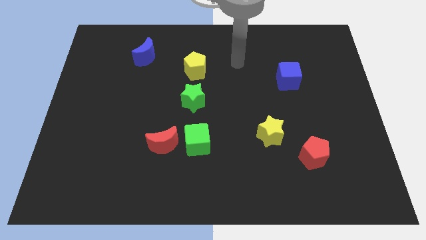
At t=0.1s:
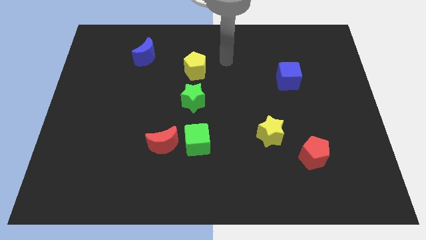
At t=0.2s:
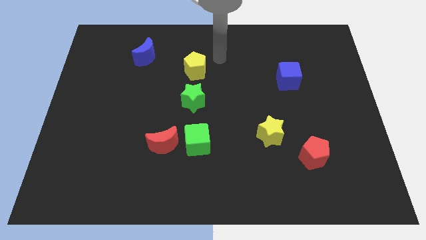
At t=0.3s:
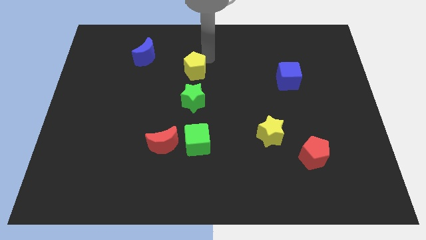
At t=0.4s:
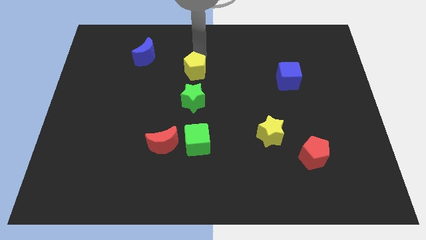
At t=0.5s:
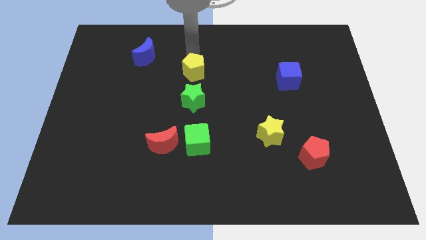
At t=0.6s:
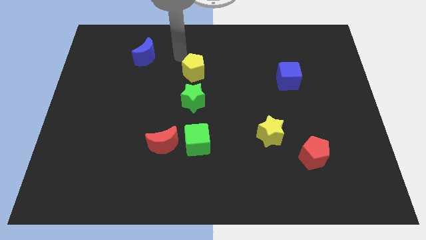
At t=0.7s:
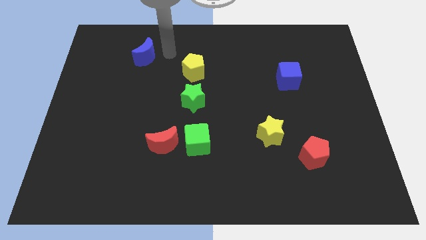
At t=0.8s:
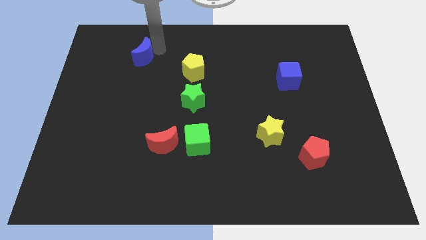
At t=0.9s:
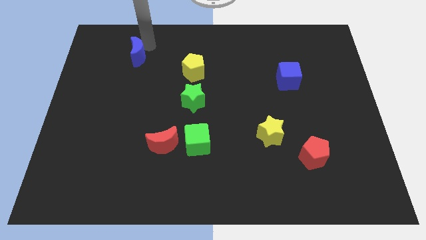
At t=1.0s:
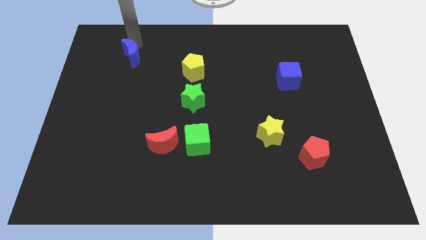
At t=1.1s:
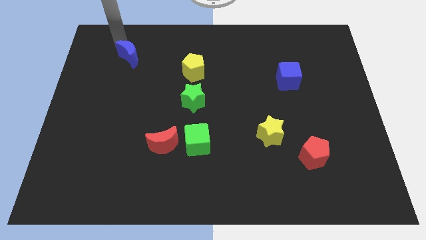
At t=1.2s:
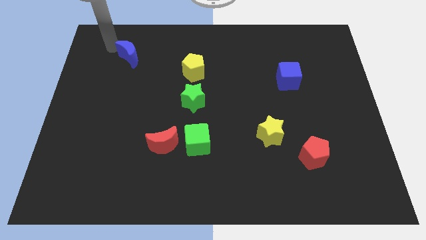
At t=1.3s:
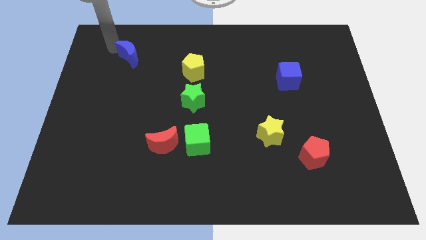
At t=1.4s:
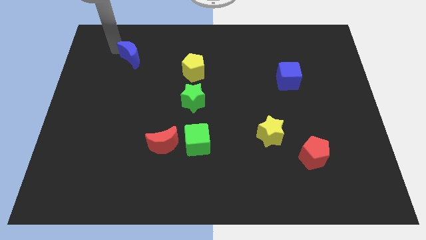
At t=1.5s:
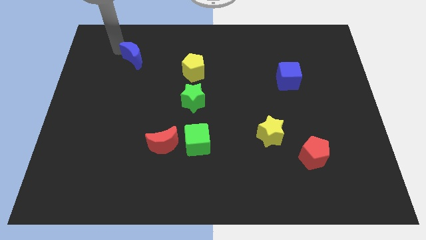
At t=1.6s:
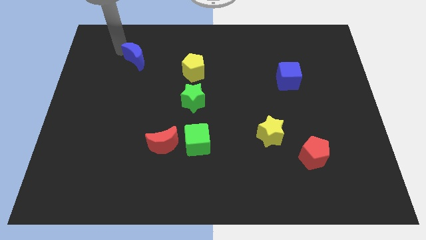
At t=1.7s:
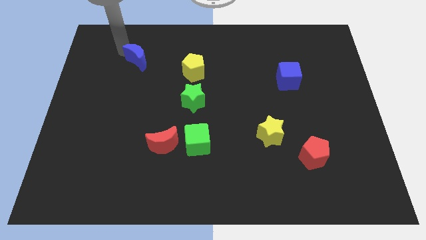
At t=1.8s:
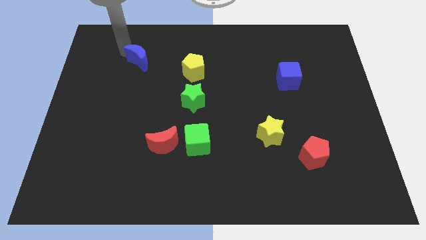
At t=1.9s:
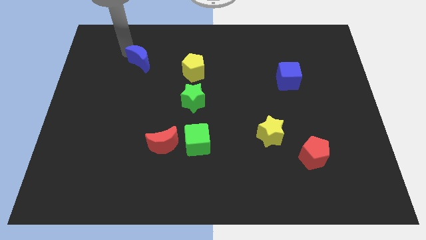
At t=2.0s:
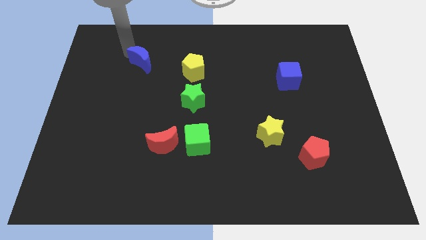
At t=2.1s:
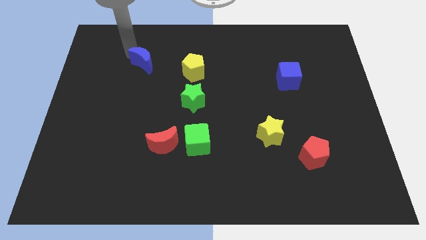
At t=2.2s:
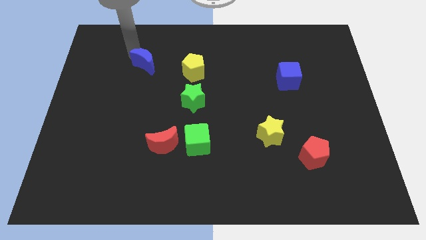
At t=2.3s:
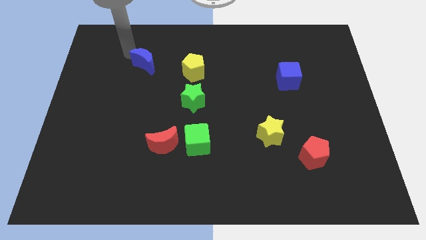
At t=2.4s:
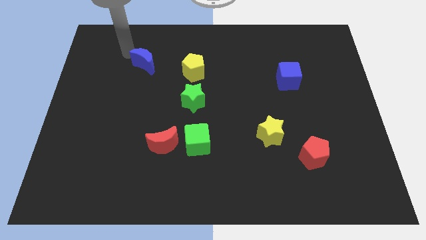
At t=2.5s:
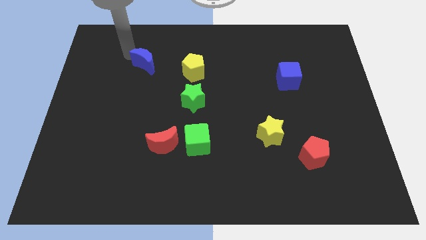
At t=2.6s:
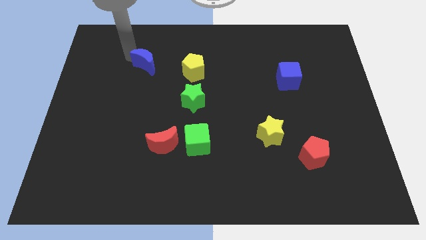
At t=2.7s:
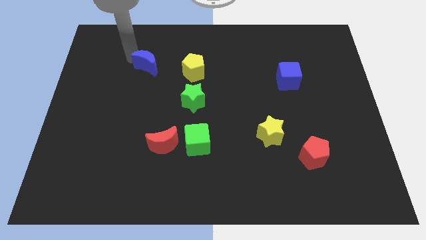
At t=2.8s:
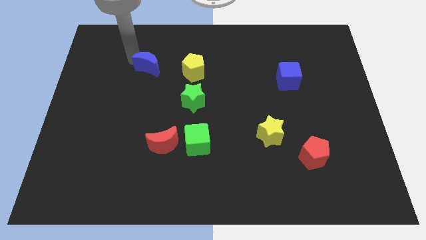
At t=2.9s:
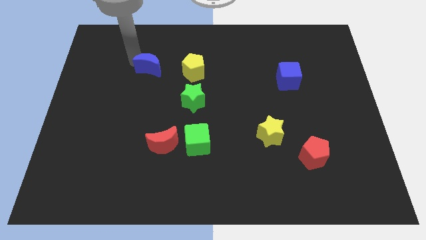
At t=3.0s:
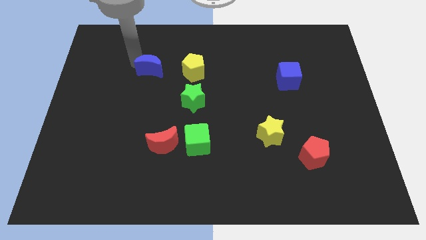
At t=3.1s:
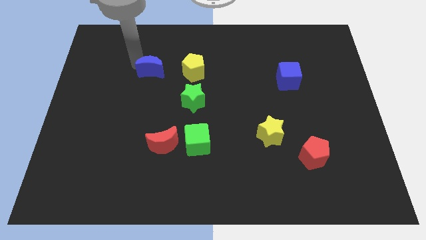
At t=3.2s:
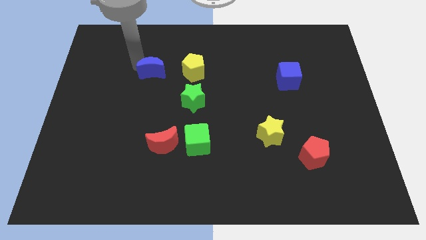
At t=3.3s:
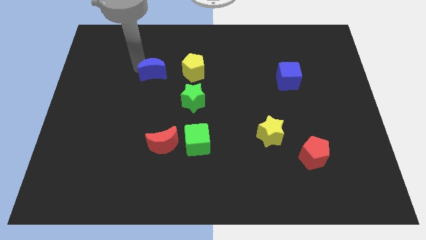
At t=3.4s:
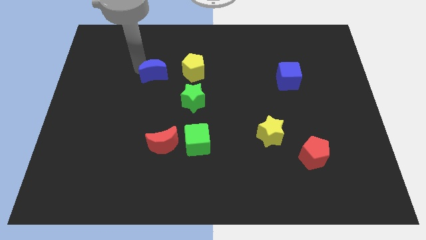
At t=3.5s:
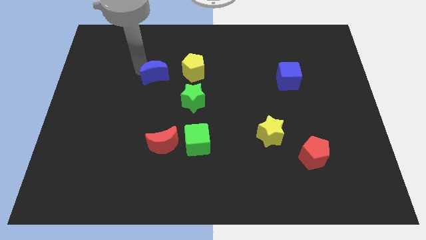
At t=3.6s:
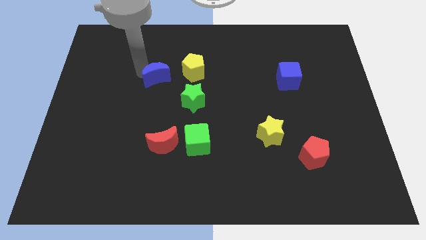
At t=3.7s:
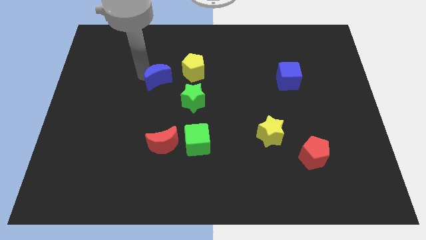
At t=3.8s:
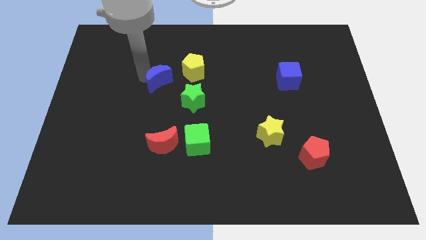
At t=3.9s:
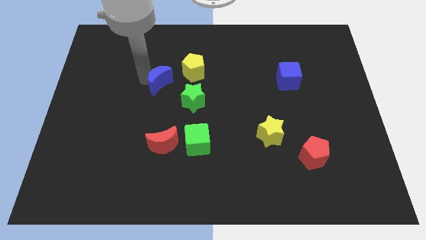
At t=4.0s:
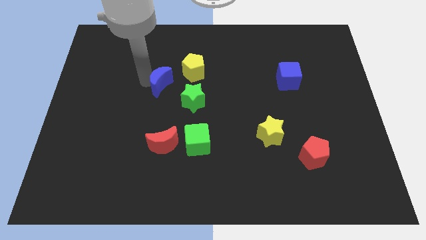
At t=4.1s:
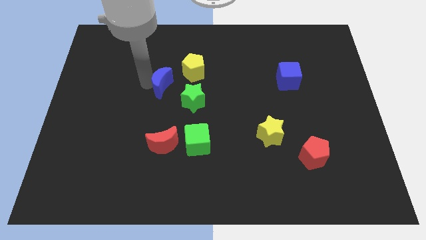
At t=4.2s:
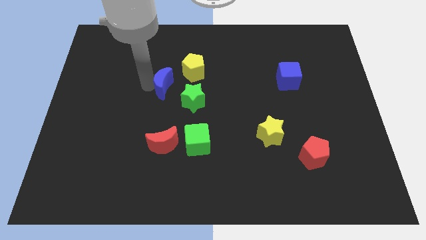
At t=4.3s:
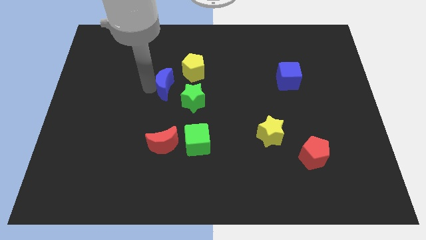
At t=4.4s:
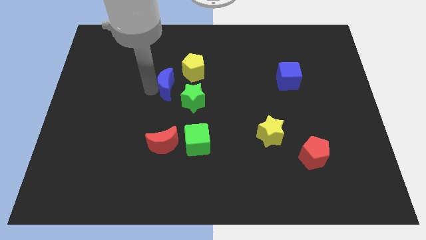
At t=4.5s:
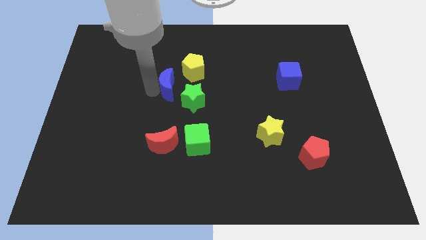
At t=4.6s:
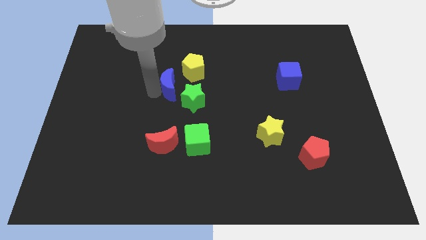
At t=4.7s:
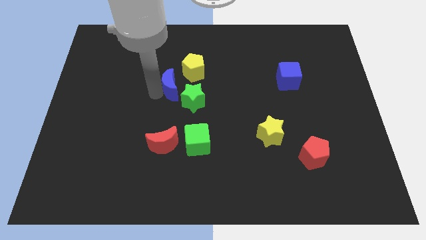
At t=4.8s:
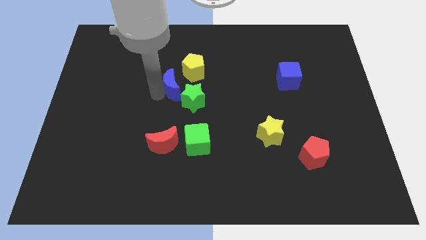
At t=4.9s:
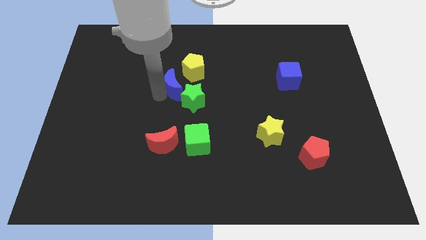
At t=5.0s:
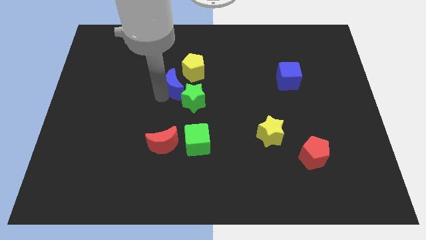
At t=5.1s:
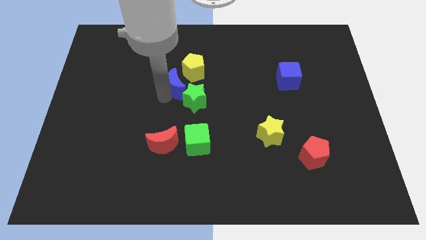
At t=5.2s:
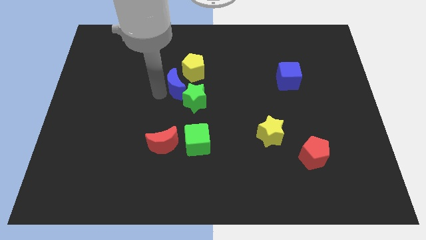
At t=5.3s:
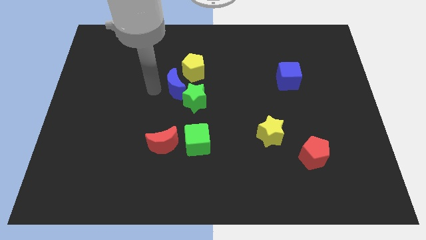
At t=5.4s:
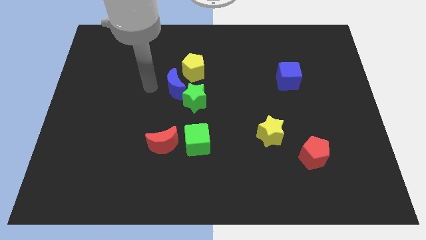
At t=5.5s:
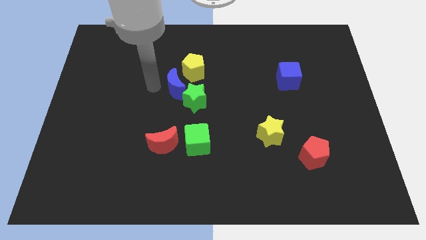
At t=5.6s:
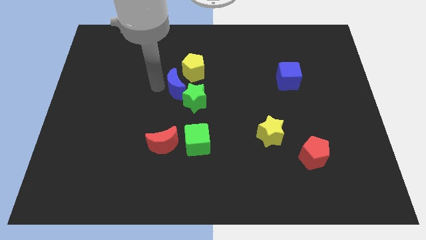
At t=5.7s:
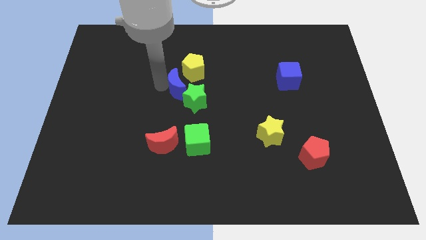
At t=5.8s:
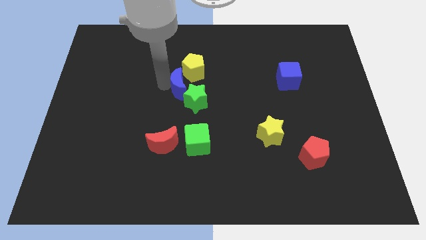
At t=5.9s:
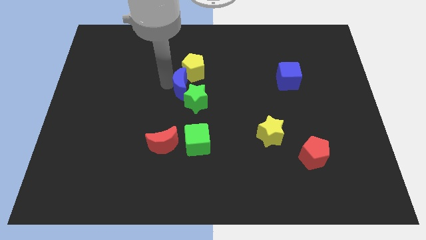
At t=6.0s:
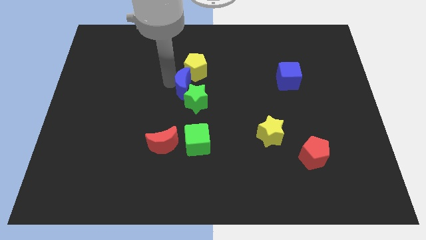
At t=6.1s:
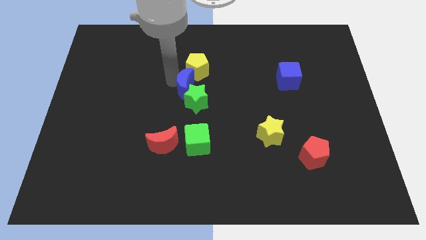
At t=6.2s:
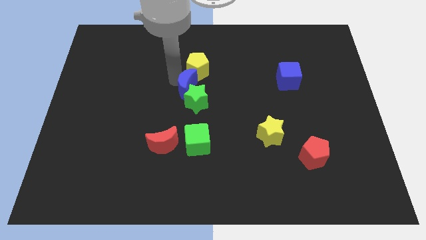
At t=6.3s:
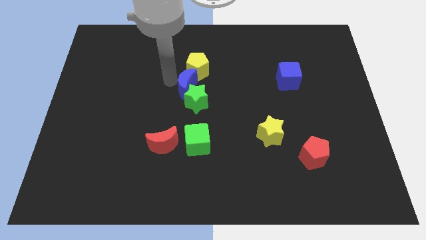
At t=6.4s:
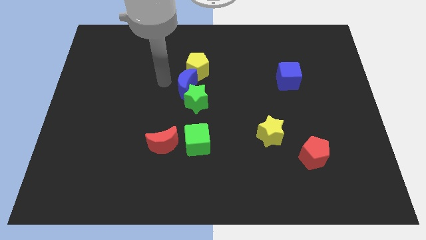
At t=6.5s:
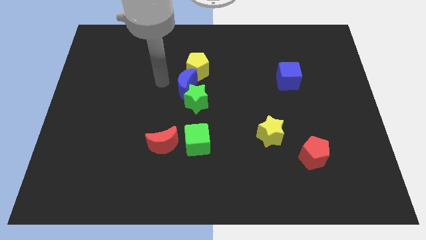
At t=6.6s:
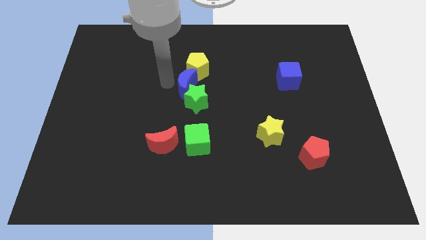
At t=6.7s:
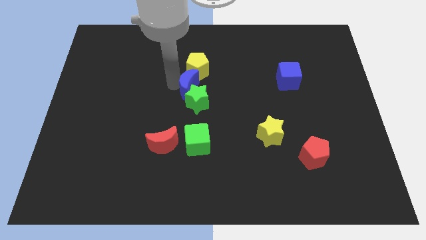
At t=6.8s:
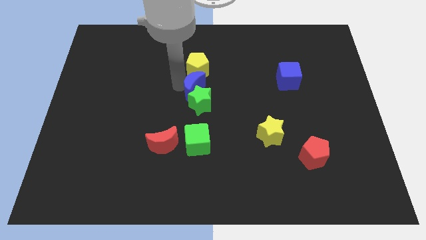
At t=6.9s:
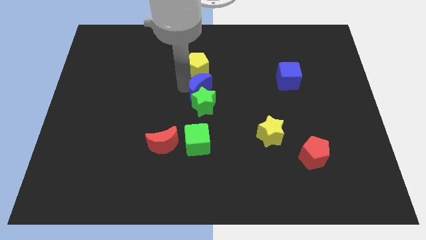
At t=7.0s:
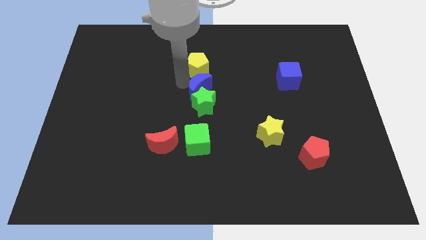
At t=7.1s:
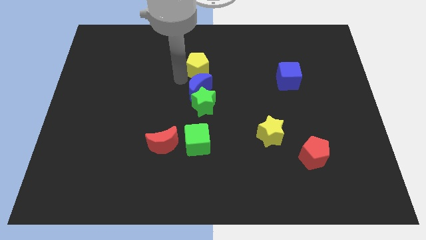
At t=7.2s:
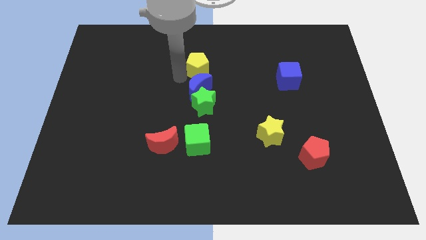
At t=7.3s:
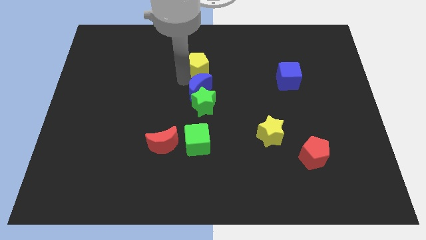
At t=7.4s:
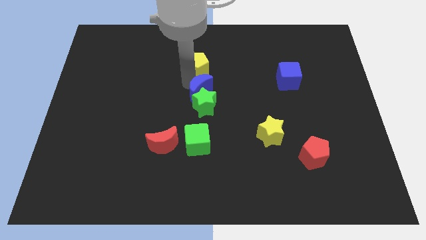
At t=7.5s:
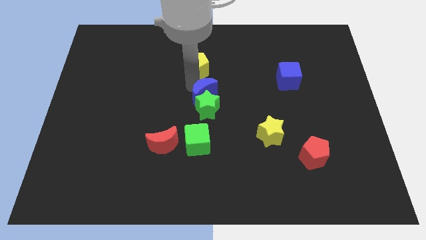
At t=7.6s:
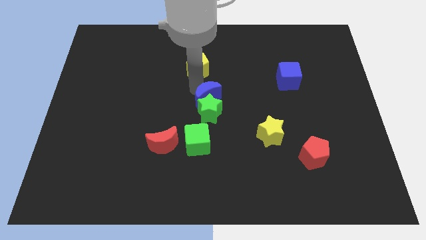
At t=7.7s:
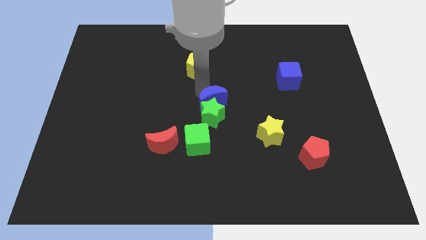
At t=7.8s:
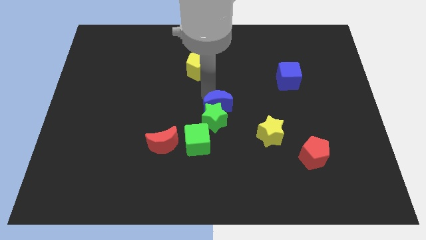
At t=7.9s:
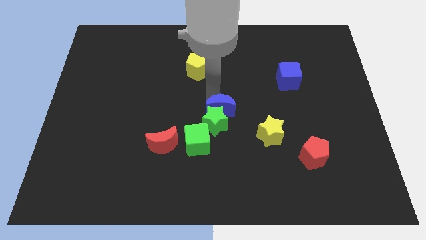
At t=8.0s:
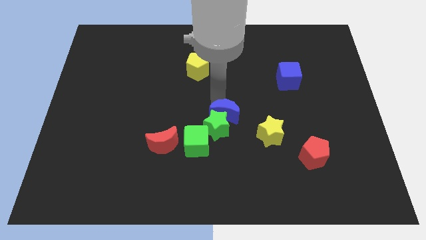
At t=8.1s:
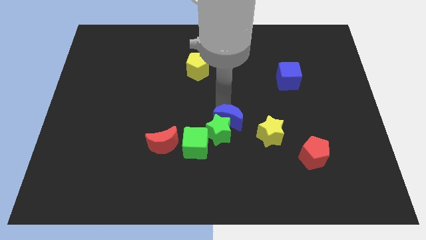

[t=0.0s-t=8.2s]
put the blue moon left of the yellow star
